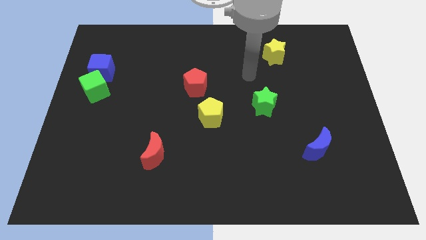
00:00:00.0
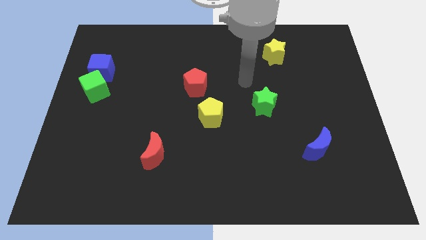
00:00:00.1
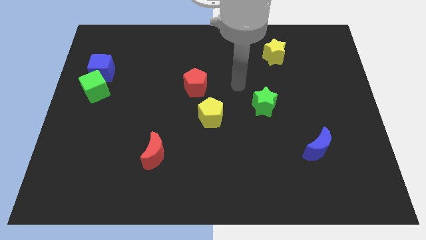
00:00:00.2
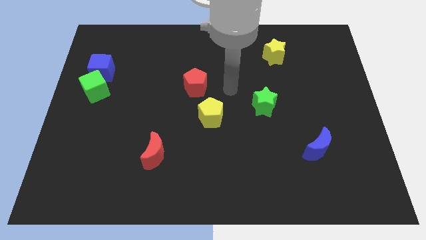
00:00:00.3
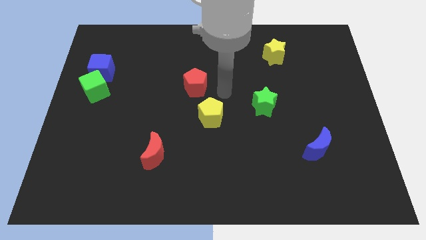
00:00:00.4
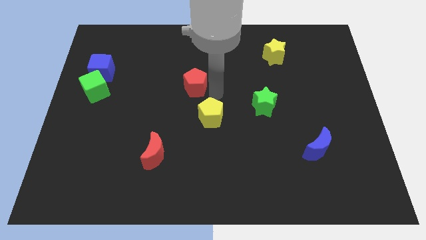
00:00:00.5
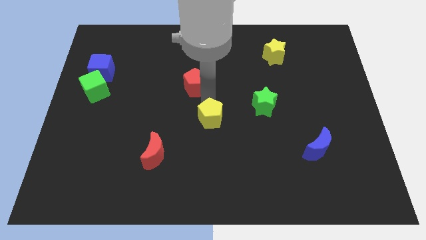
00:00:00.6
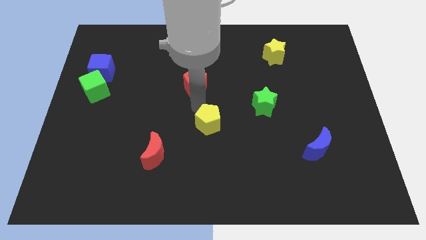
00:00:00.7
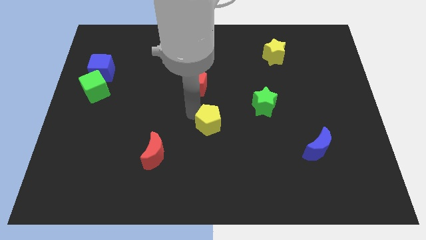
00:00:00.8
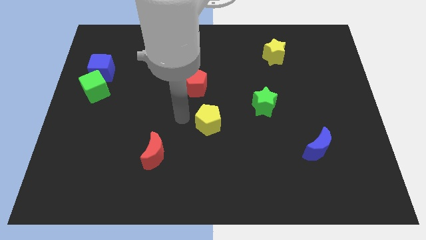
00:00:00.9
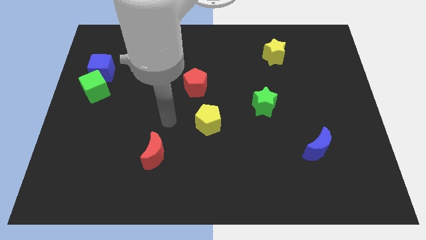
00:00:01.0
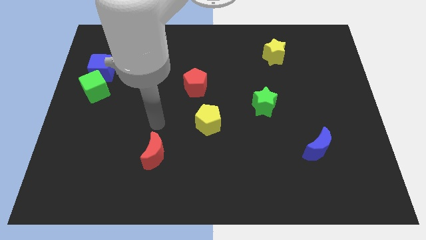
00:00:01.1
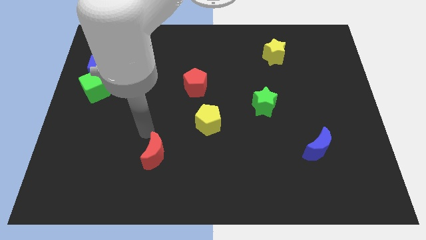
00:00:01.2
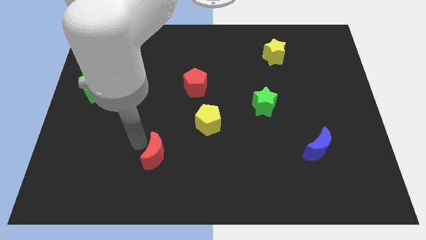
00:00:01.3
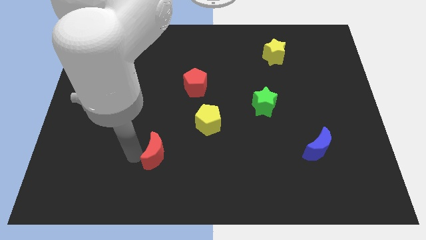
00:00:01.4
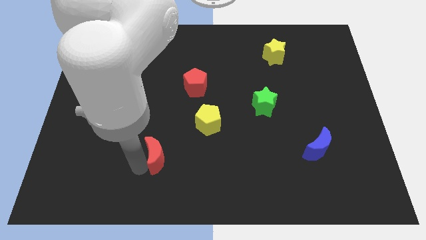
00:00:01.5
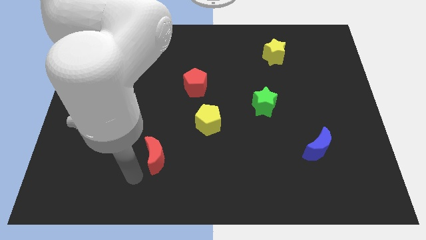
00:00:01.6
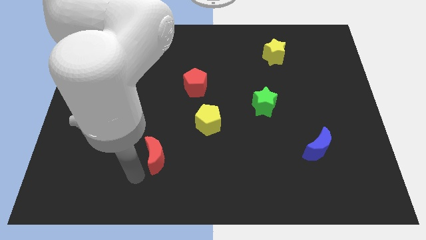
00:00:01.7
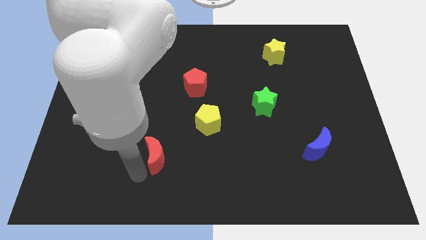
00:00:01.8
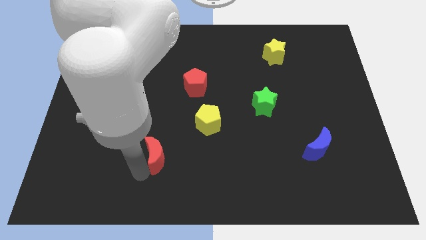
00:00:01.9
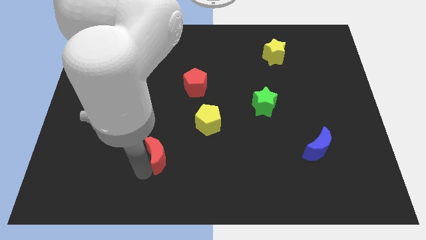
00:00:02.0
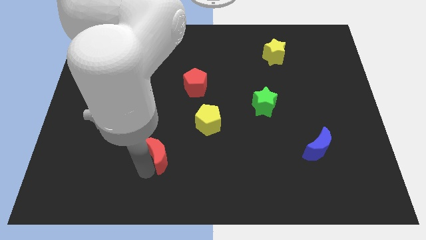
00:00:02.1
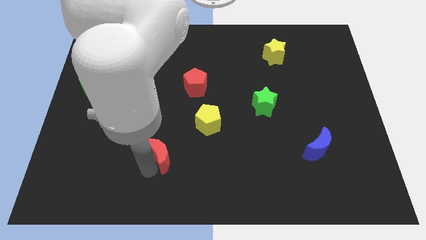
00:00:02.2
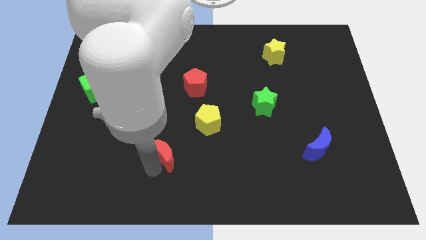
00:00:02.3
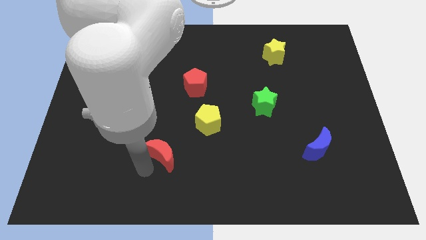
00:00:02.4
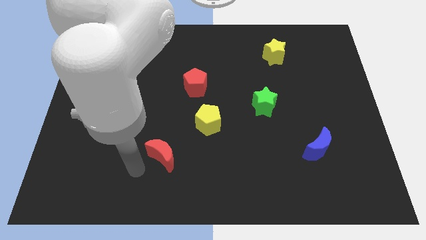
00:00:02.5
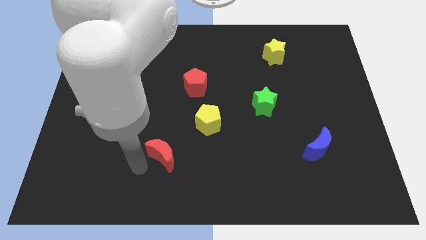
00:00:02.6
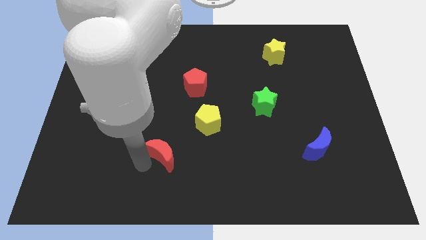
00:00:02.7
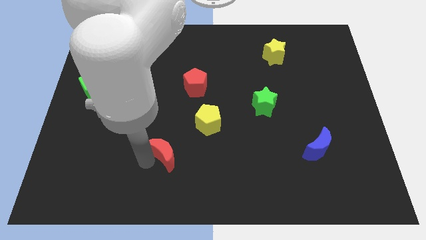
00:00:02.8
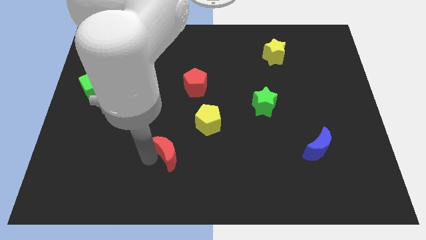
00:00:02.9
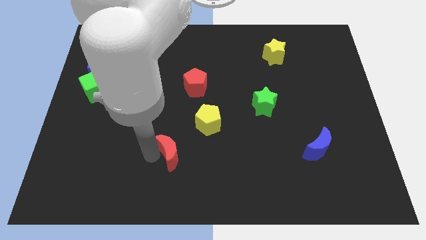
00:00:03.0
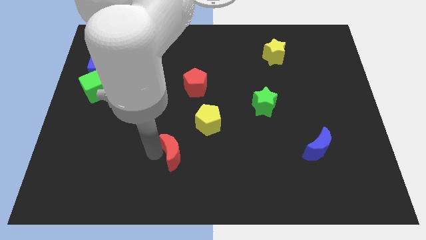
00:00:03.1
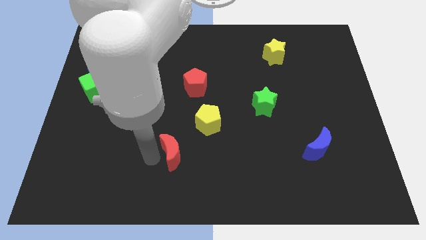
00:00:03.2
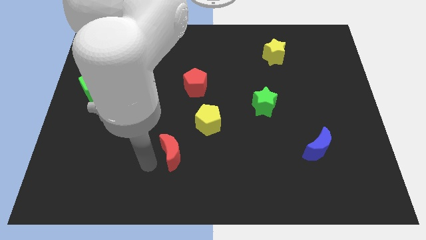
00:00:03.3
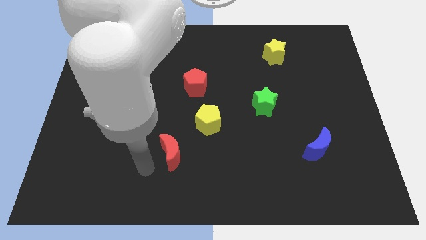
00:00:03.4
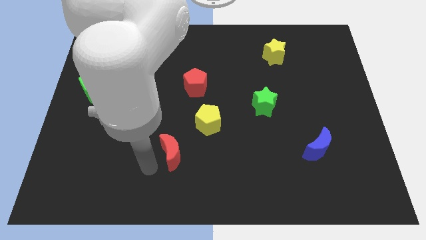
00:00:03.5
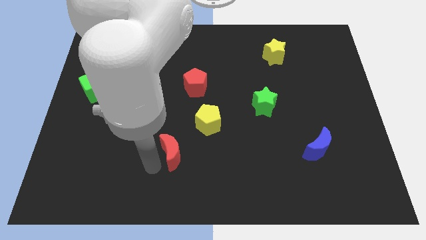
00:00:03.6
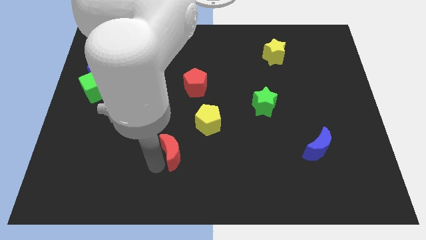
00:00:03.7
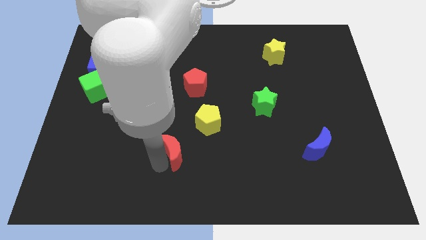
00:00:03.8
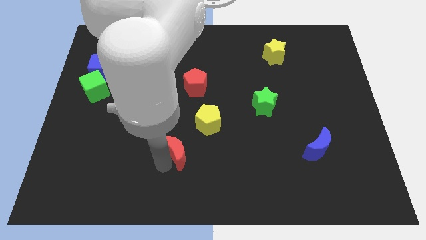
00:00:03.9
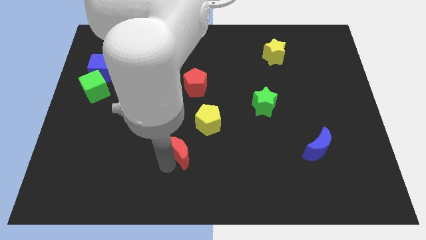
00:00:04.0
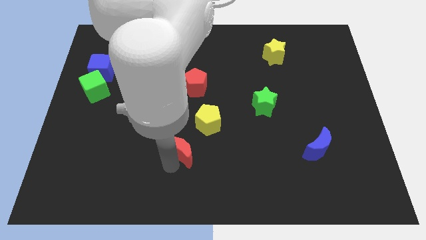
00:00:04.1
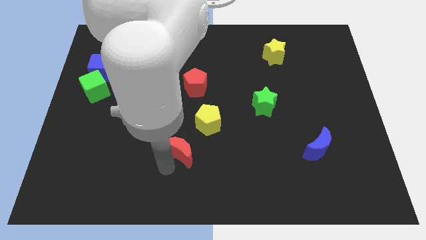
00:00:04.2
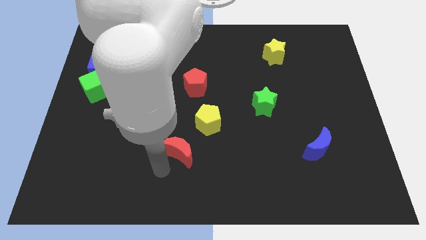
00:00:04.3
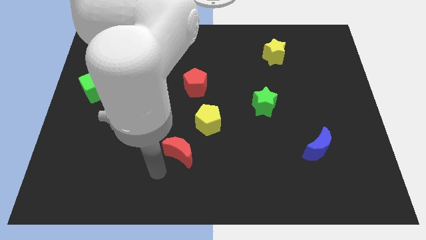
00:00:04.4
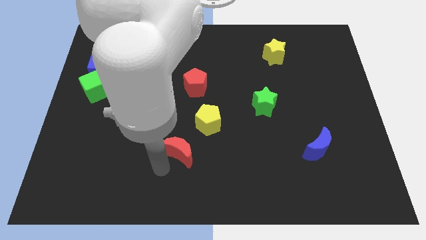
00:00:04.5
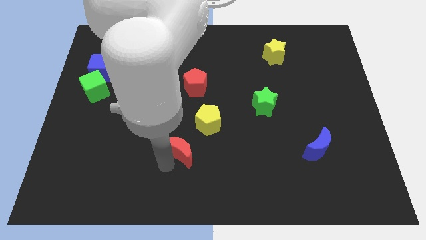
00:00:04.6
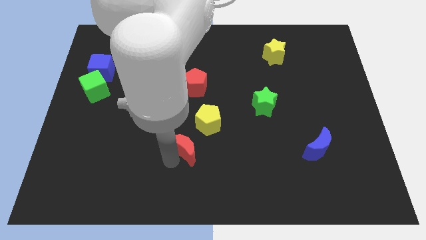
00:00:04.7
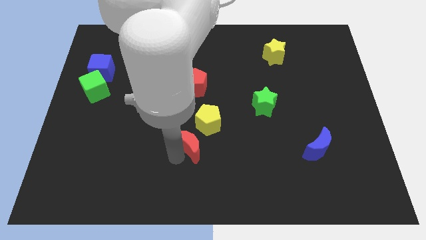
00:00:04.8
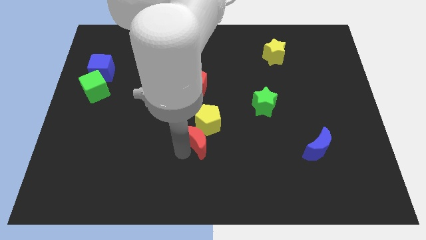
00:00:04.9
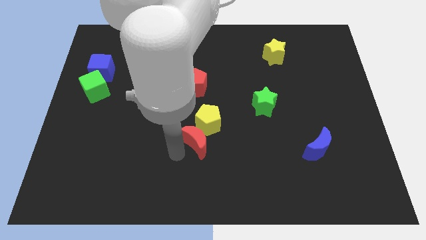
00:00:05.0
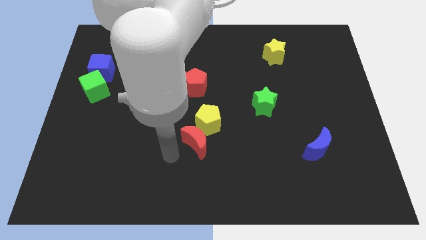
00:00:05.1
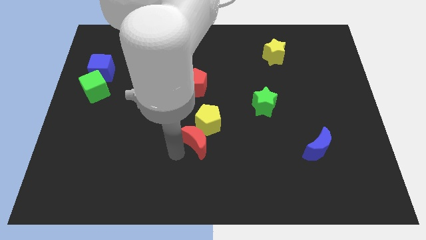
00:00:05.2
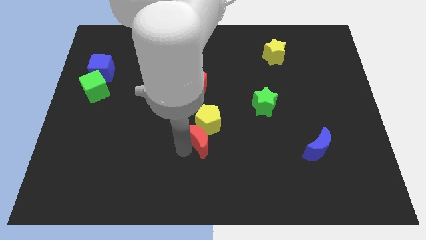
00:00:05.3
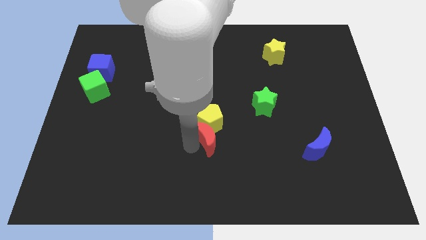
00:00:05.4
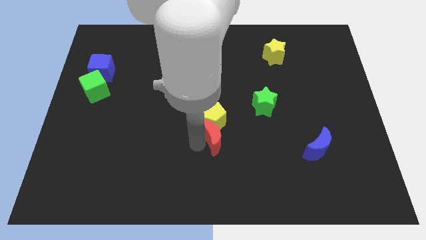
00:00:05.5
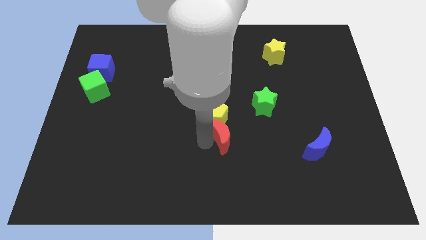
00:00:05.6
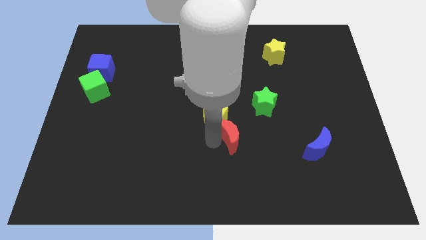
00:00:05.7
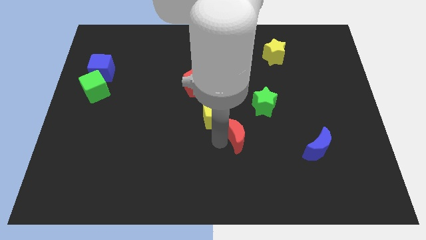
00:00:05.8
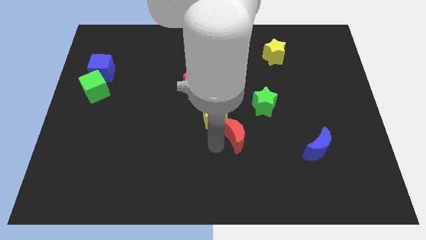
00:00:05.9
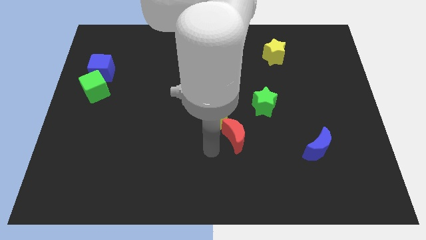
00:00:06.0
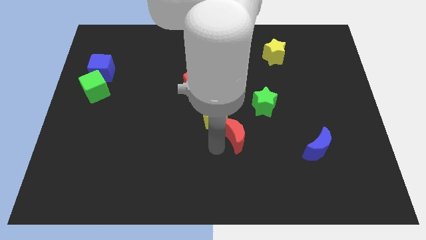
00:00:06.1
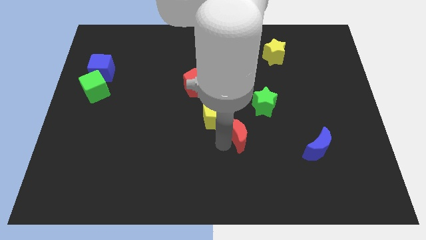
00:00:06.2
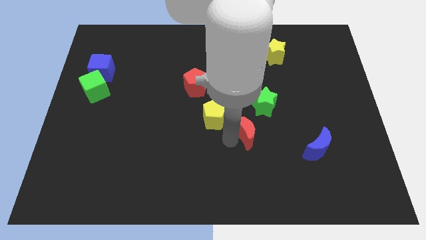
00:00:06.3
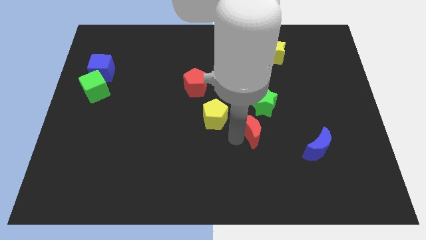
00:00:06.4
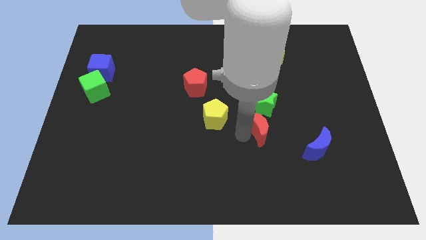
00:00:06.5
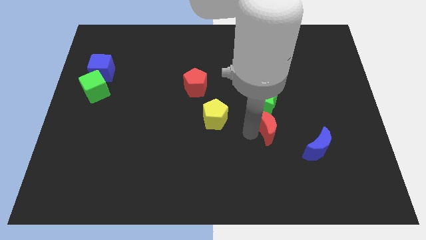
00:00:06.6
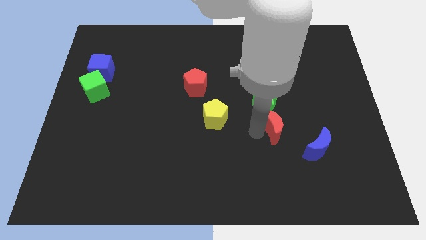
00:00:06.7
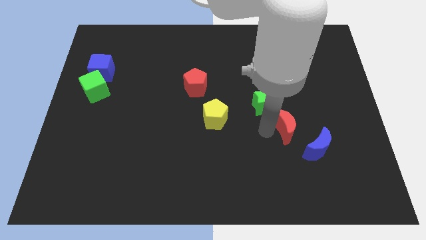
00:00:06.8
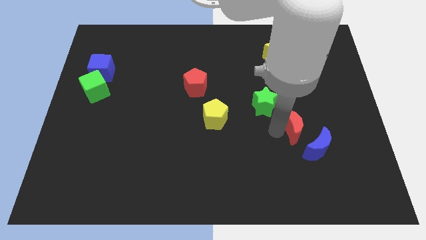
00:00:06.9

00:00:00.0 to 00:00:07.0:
push the red moon to the top of the blue moon
